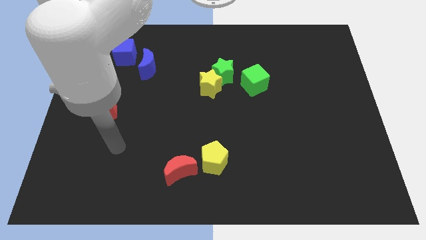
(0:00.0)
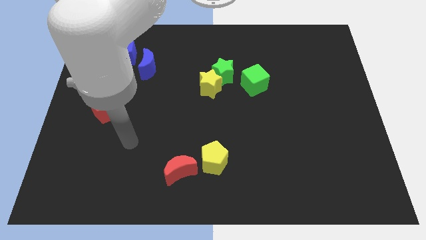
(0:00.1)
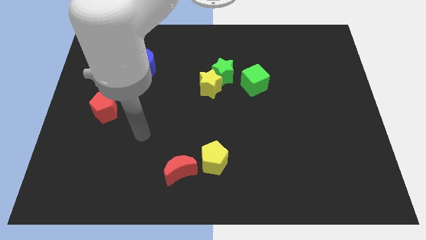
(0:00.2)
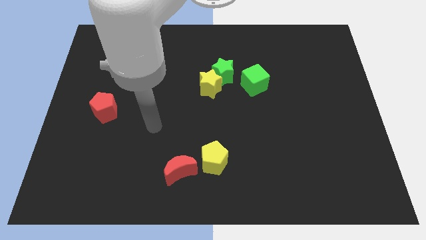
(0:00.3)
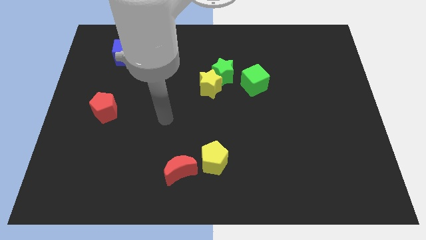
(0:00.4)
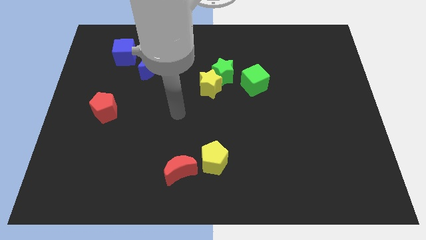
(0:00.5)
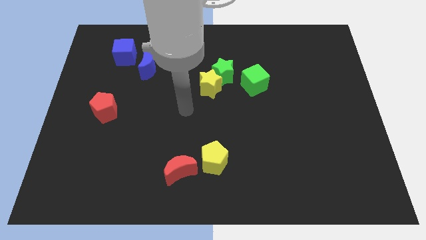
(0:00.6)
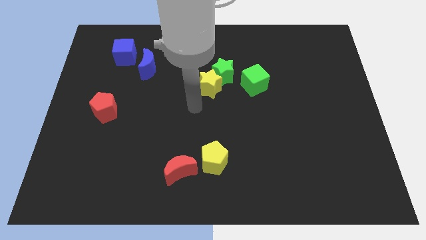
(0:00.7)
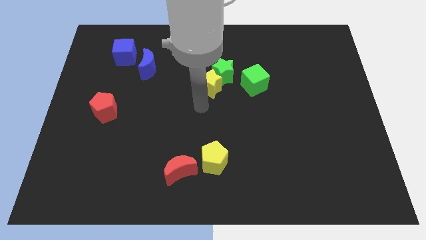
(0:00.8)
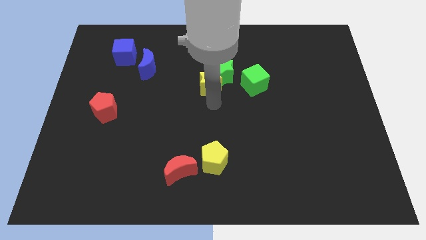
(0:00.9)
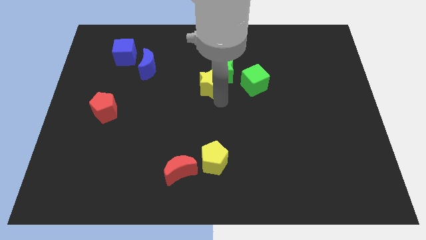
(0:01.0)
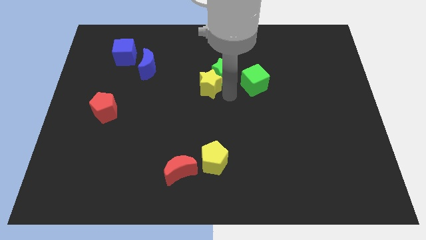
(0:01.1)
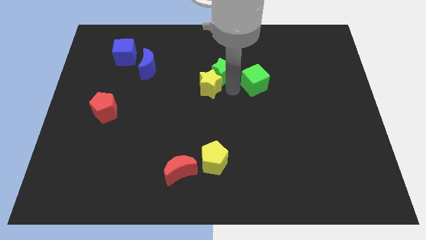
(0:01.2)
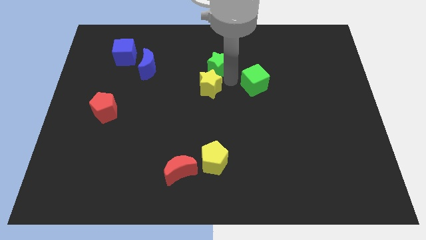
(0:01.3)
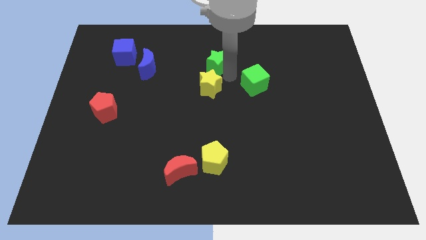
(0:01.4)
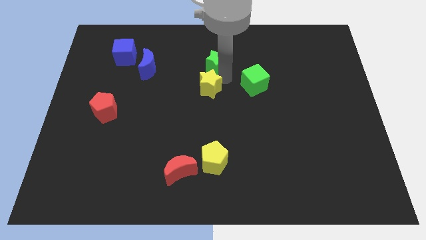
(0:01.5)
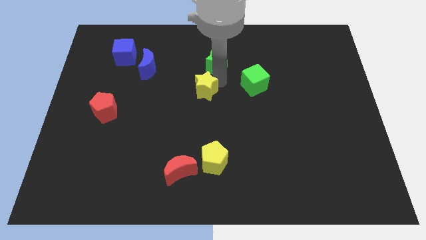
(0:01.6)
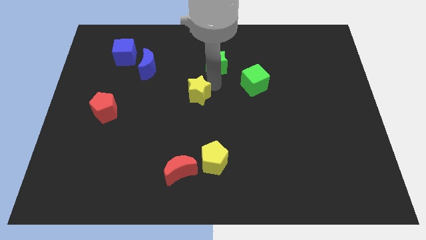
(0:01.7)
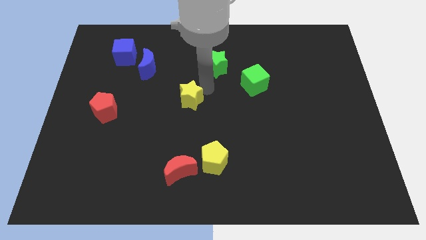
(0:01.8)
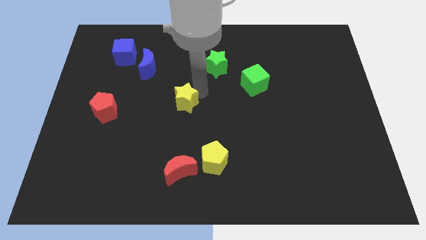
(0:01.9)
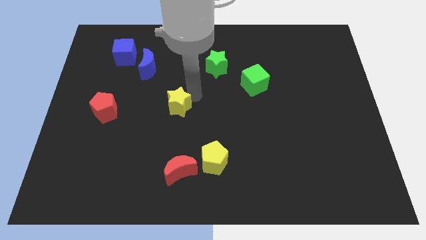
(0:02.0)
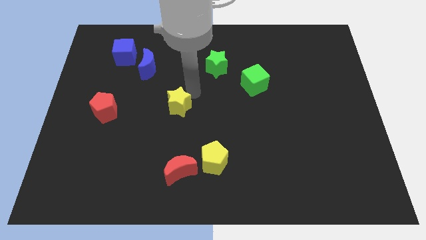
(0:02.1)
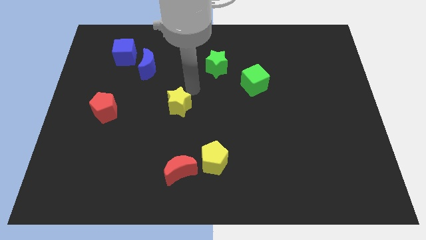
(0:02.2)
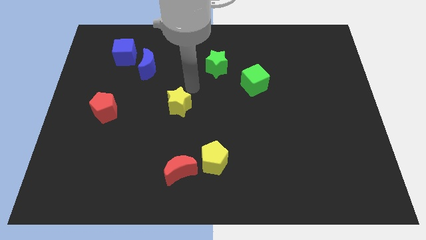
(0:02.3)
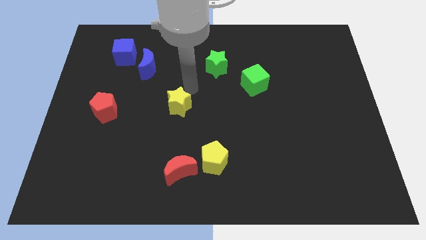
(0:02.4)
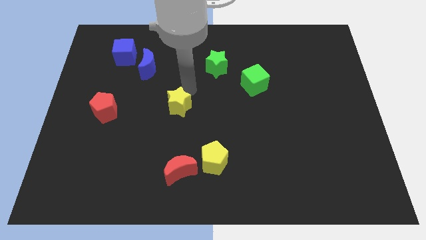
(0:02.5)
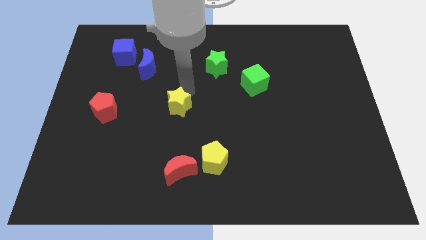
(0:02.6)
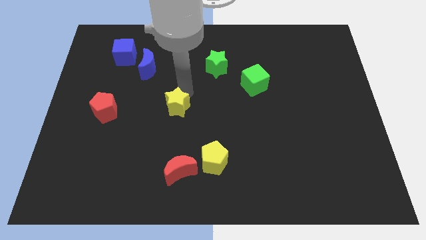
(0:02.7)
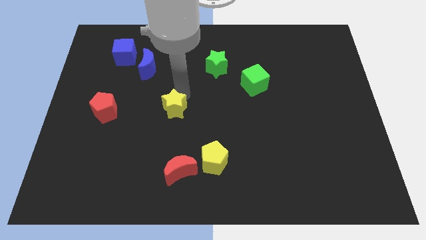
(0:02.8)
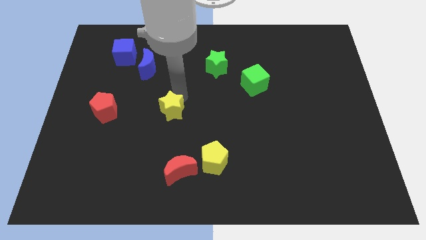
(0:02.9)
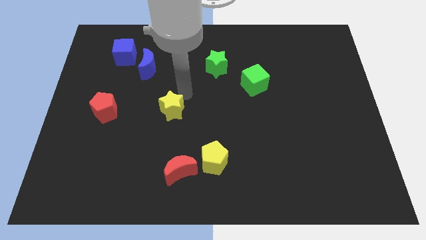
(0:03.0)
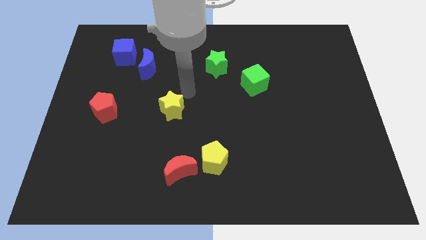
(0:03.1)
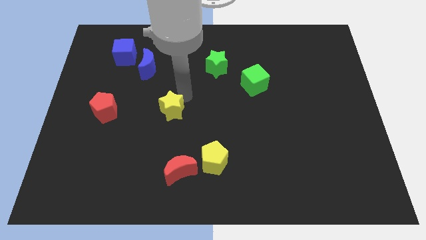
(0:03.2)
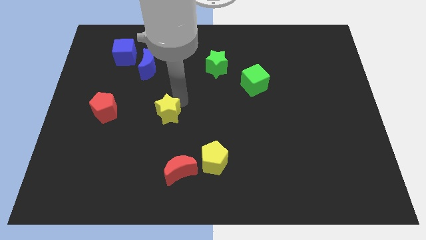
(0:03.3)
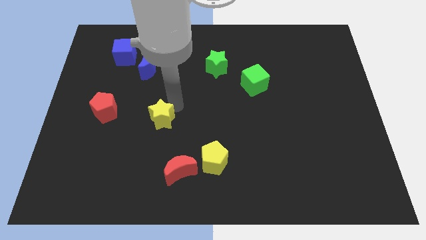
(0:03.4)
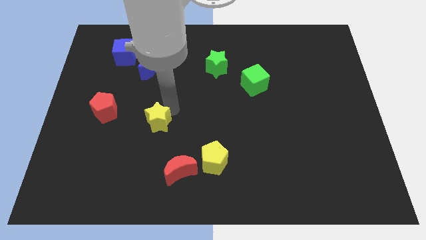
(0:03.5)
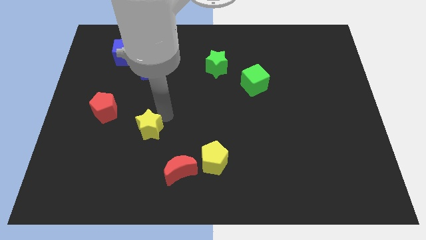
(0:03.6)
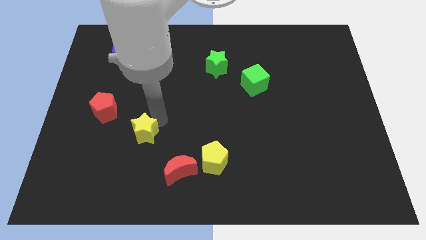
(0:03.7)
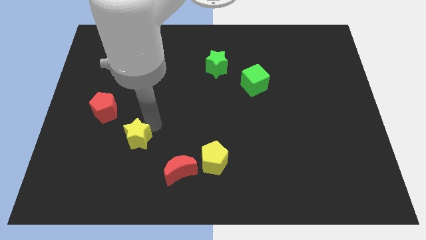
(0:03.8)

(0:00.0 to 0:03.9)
slide the yellow star downwards and to the left

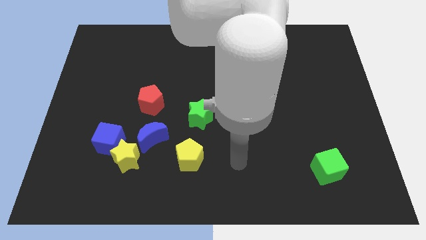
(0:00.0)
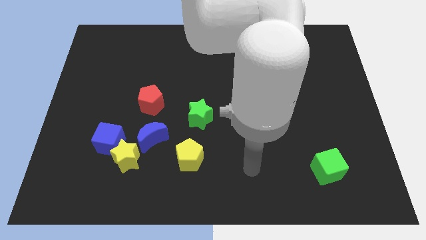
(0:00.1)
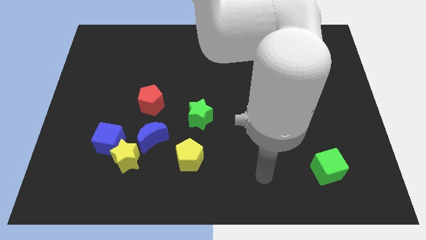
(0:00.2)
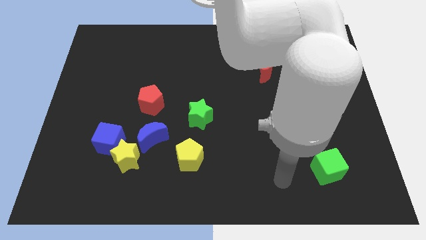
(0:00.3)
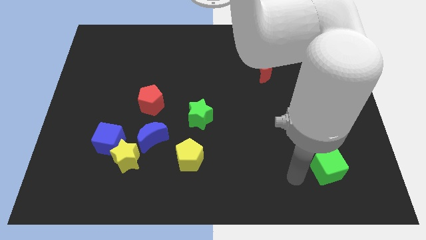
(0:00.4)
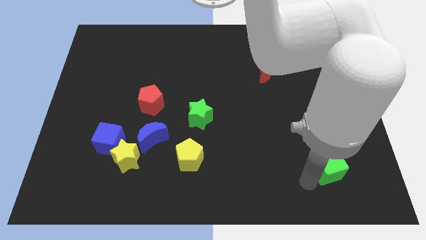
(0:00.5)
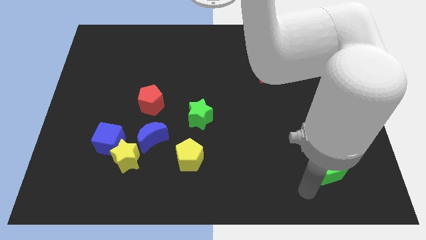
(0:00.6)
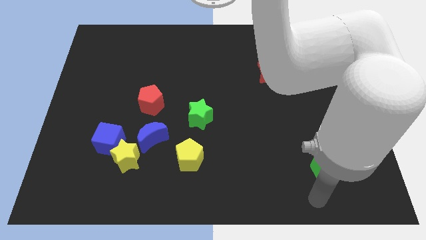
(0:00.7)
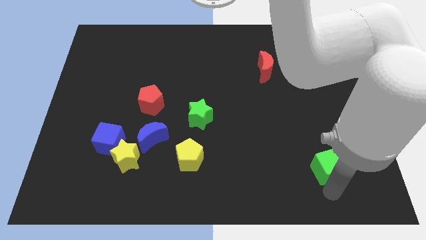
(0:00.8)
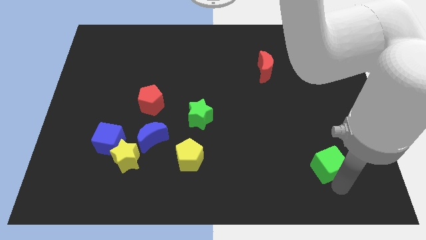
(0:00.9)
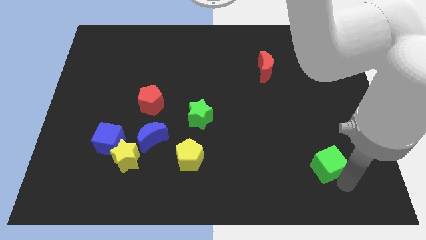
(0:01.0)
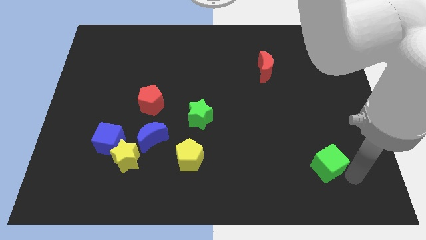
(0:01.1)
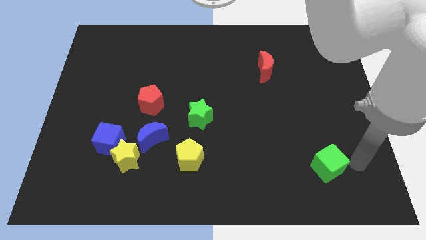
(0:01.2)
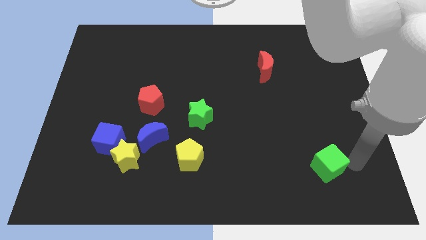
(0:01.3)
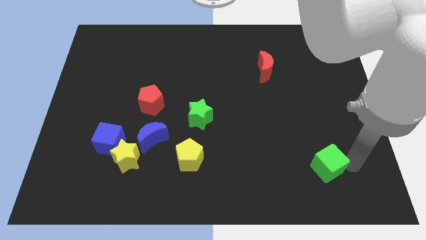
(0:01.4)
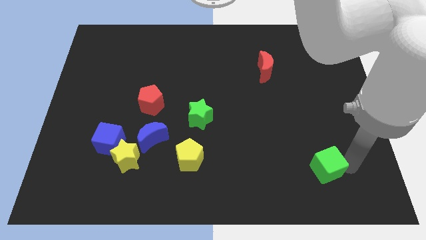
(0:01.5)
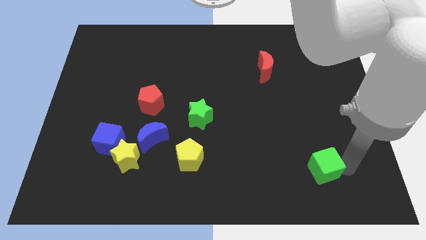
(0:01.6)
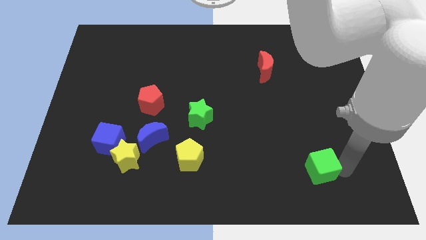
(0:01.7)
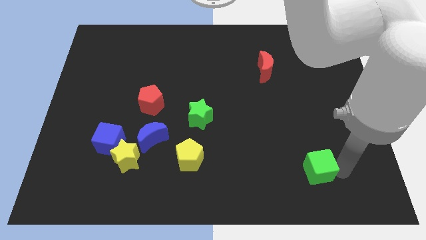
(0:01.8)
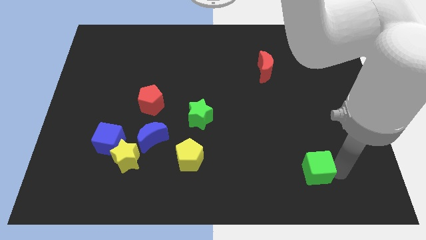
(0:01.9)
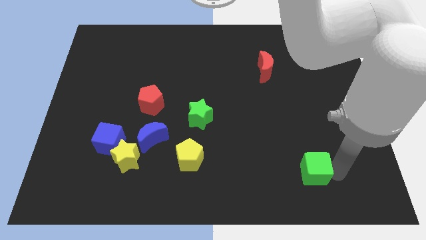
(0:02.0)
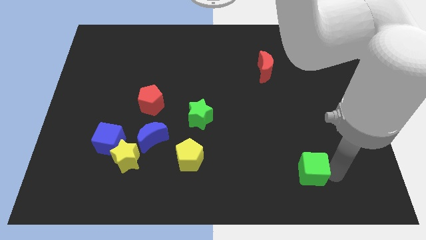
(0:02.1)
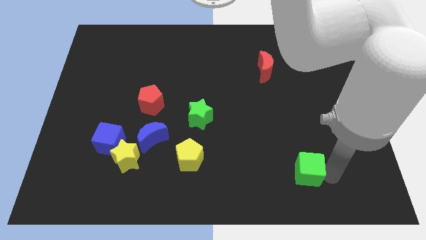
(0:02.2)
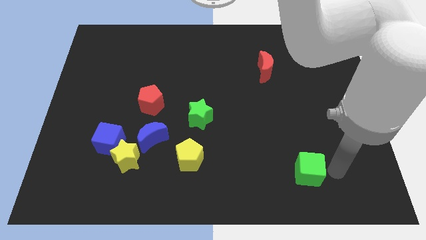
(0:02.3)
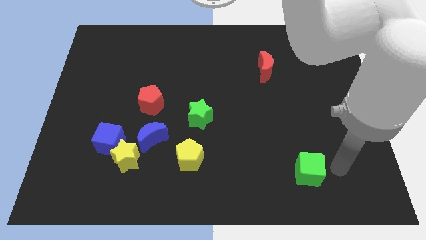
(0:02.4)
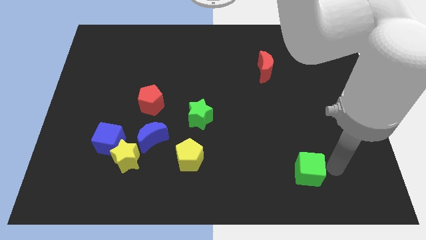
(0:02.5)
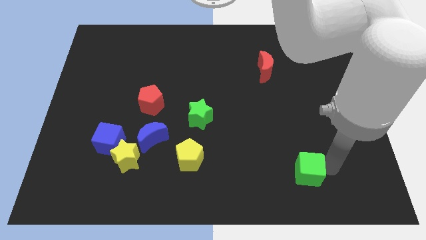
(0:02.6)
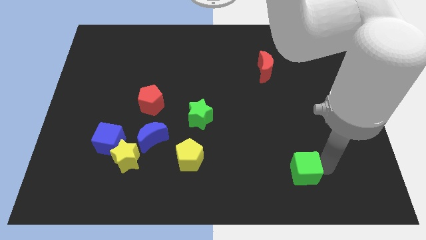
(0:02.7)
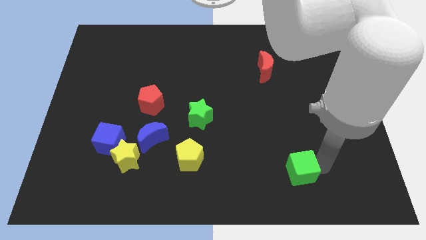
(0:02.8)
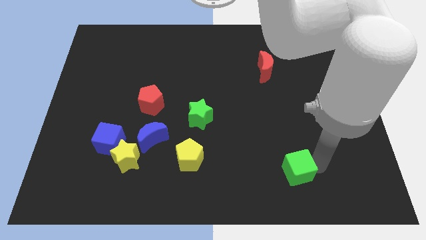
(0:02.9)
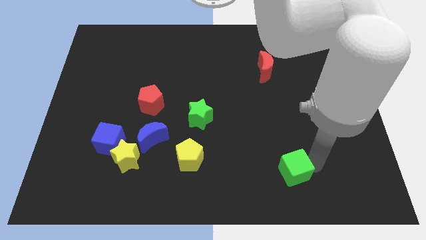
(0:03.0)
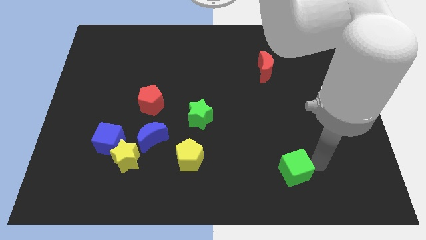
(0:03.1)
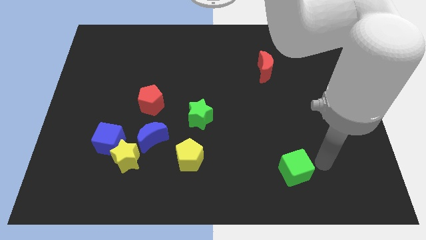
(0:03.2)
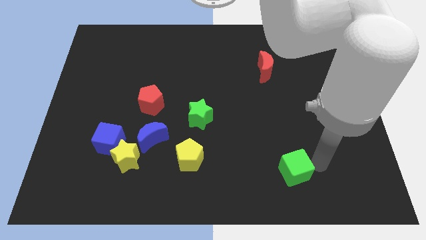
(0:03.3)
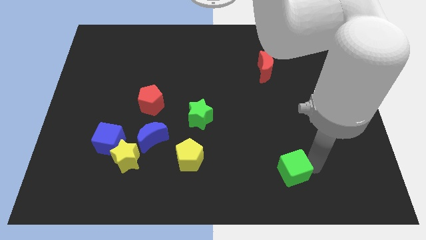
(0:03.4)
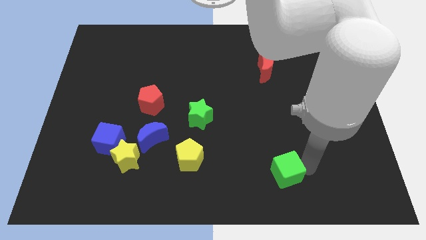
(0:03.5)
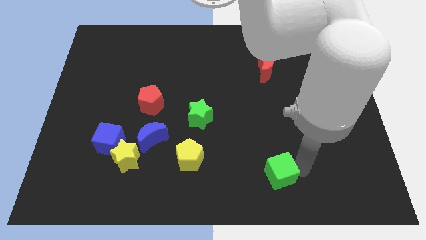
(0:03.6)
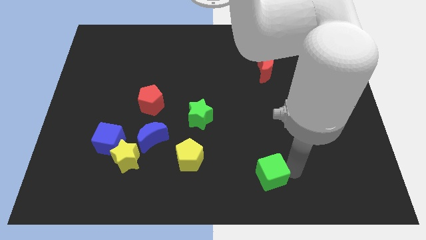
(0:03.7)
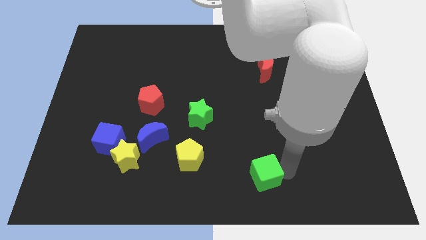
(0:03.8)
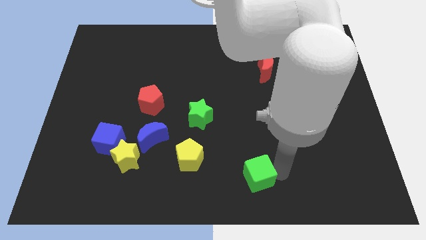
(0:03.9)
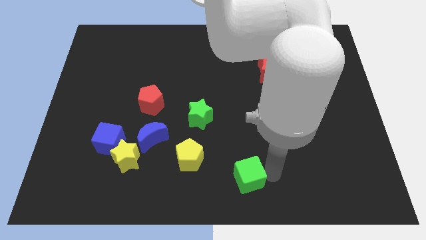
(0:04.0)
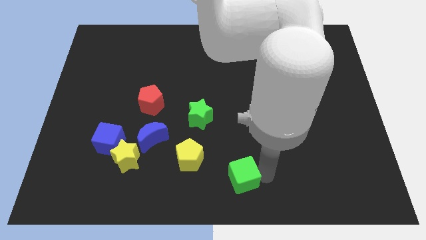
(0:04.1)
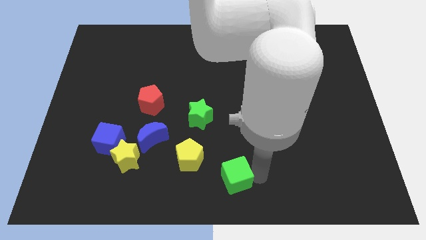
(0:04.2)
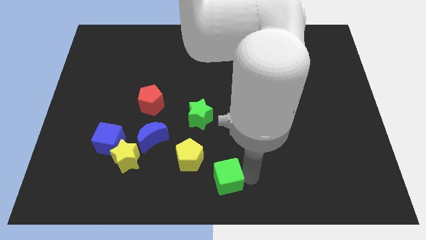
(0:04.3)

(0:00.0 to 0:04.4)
push the green cube to the left
